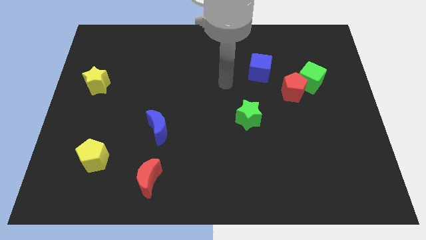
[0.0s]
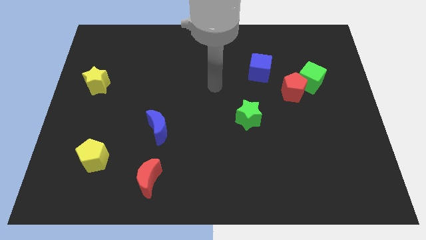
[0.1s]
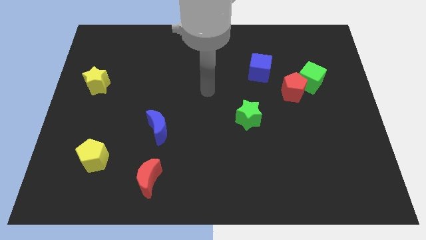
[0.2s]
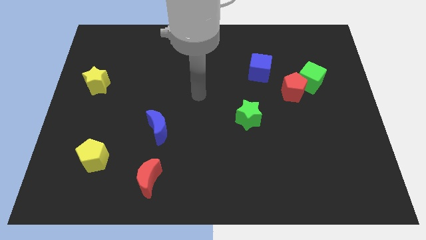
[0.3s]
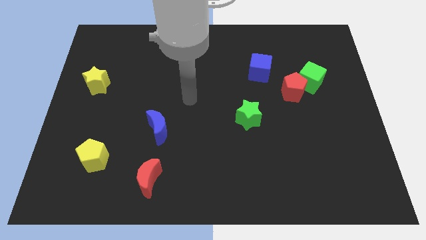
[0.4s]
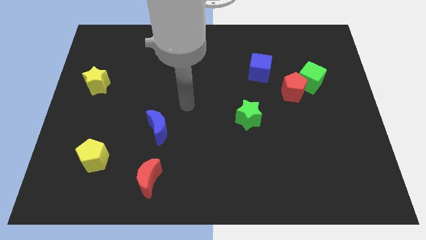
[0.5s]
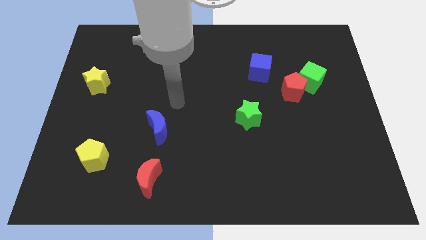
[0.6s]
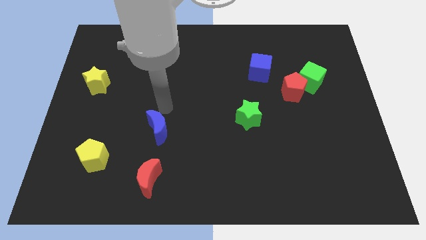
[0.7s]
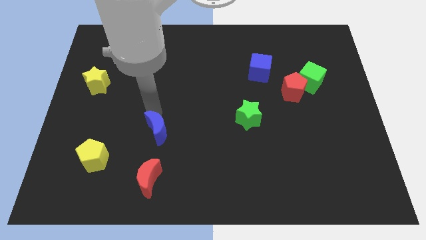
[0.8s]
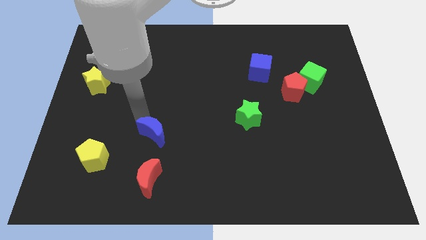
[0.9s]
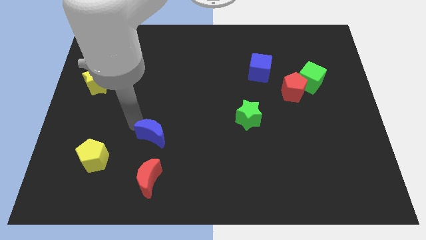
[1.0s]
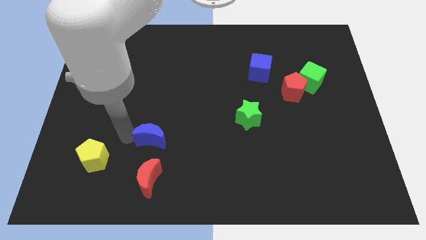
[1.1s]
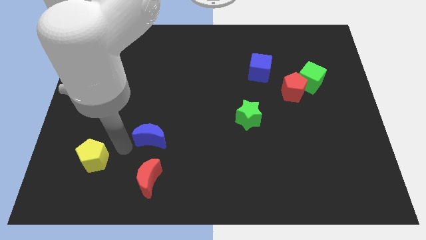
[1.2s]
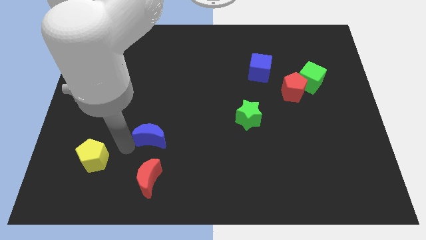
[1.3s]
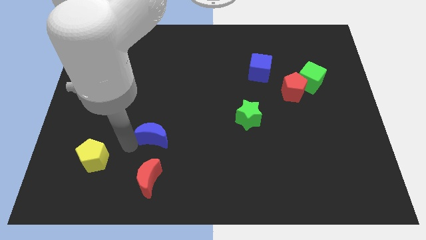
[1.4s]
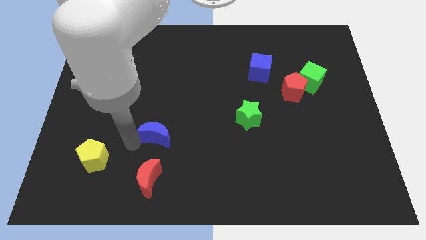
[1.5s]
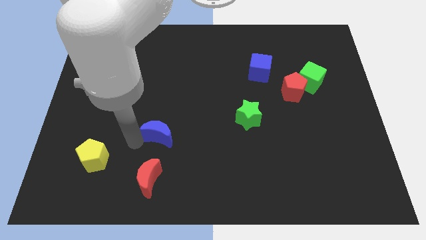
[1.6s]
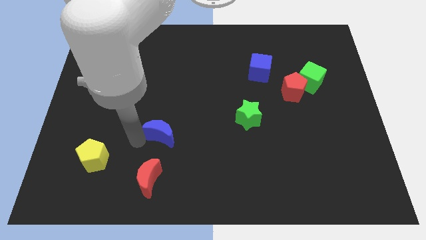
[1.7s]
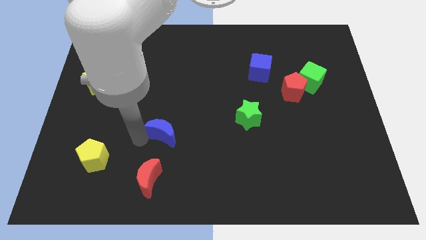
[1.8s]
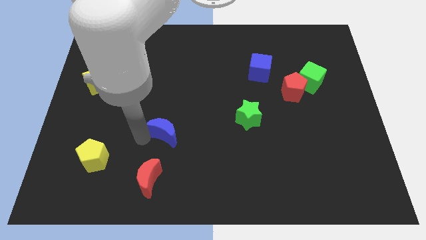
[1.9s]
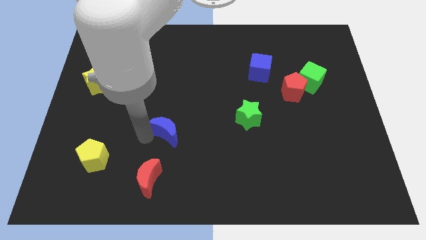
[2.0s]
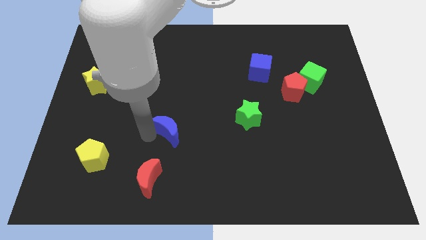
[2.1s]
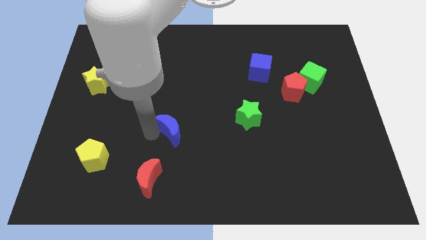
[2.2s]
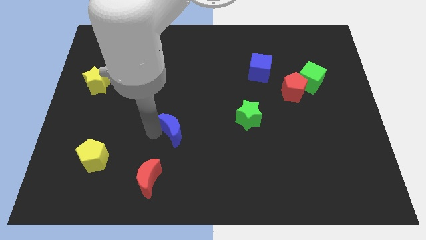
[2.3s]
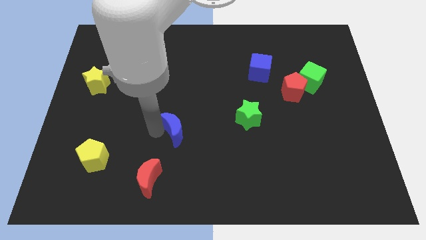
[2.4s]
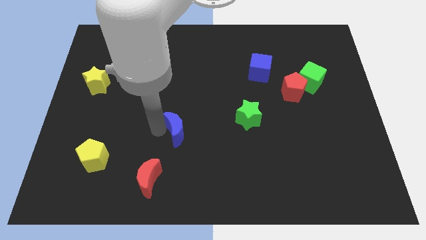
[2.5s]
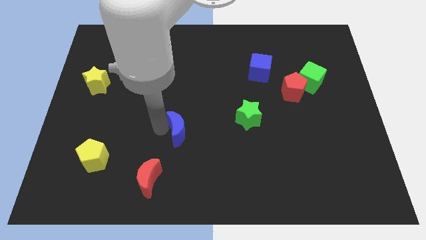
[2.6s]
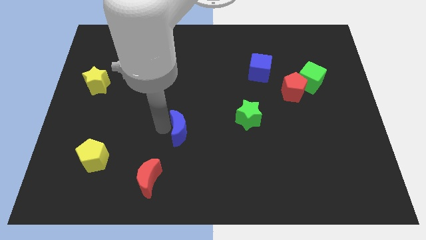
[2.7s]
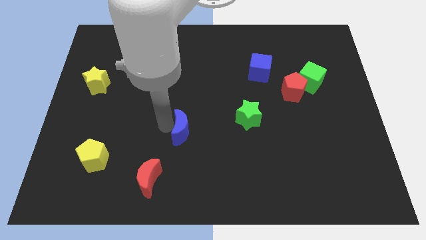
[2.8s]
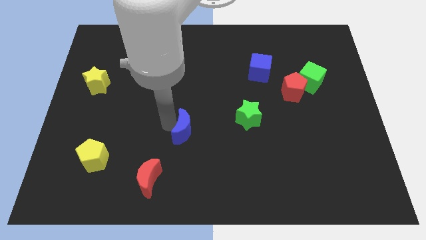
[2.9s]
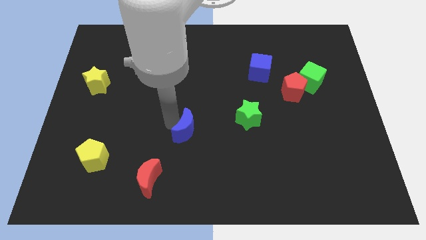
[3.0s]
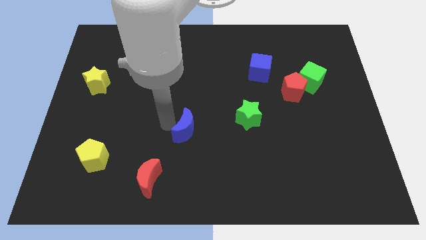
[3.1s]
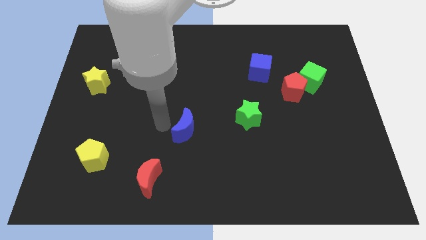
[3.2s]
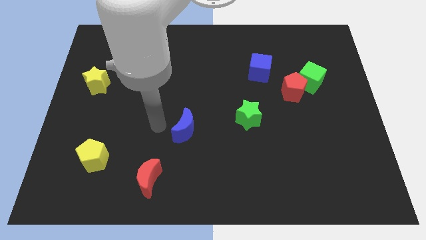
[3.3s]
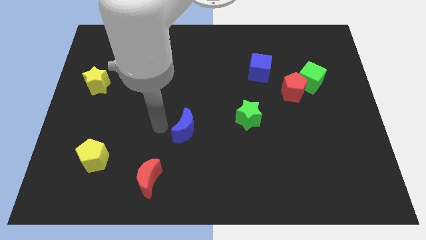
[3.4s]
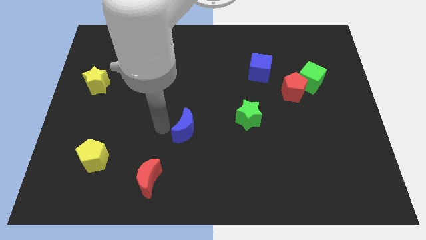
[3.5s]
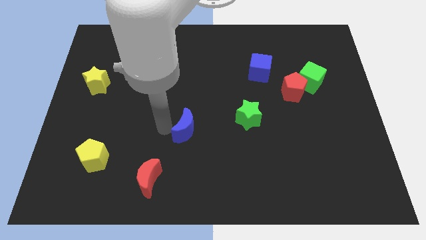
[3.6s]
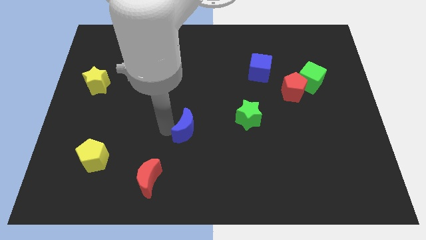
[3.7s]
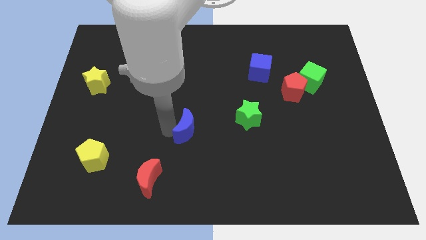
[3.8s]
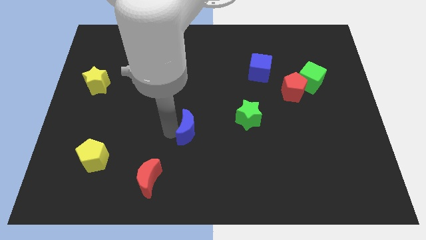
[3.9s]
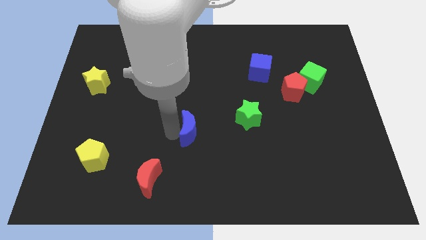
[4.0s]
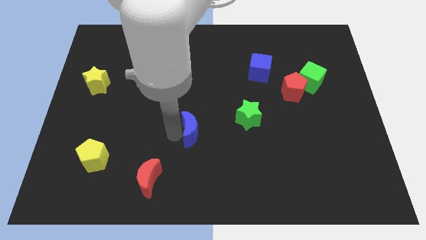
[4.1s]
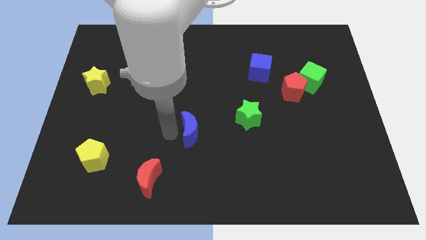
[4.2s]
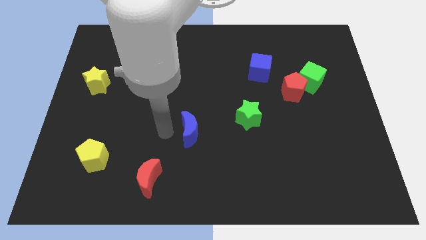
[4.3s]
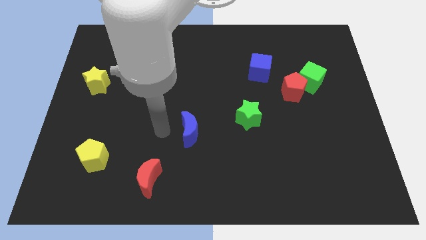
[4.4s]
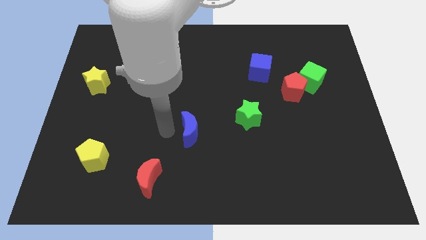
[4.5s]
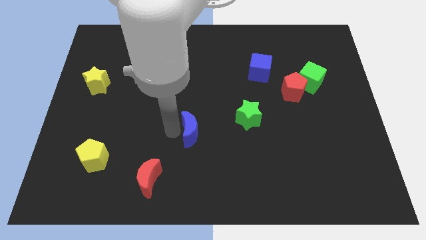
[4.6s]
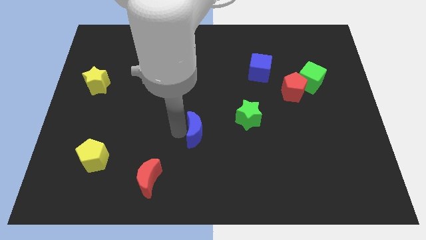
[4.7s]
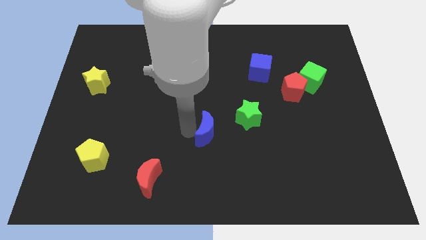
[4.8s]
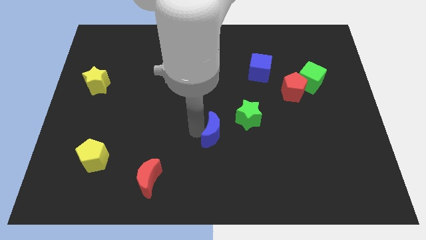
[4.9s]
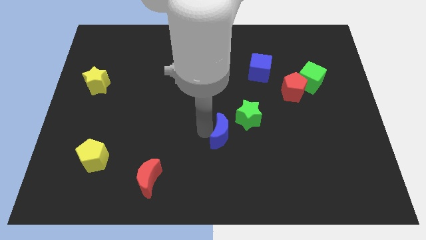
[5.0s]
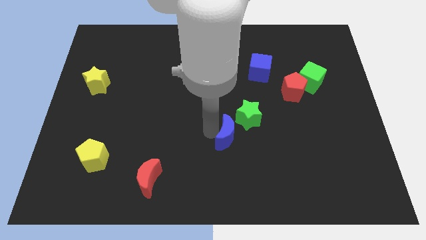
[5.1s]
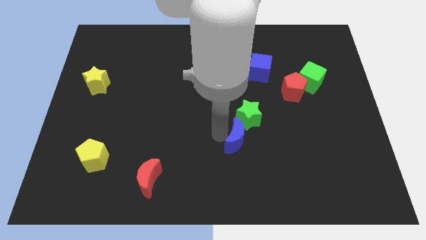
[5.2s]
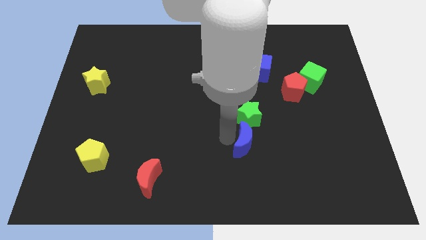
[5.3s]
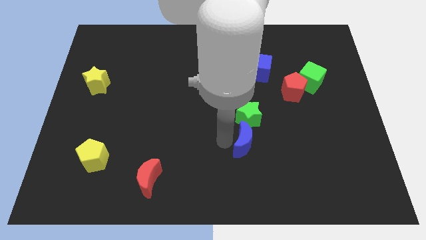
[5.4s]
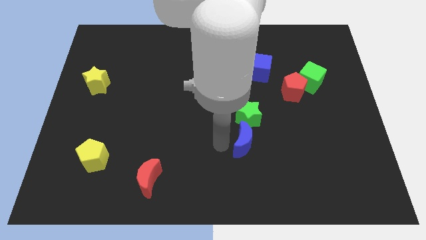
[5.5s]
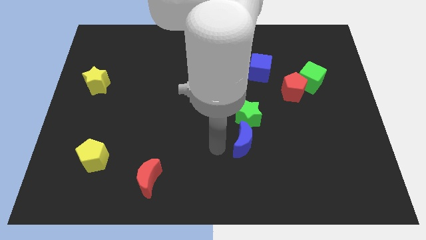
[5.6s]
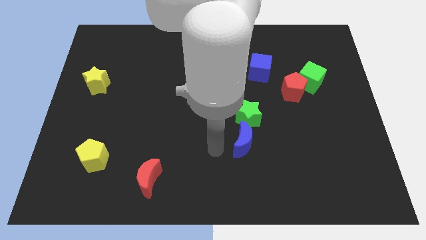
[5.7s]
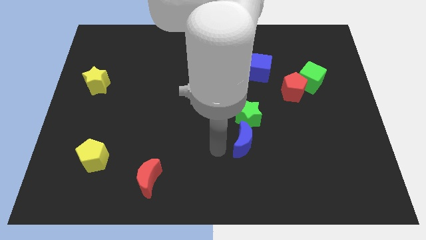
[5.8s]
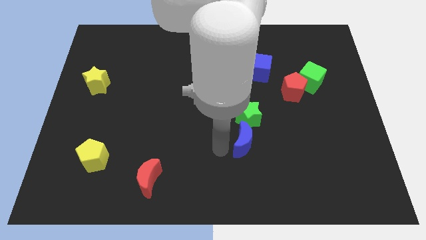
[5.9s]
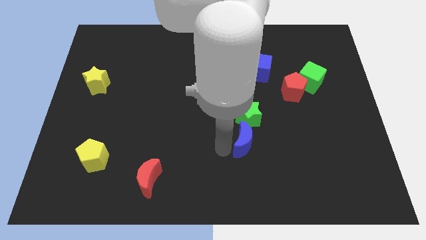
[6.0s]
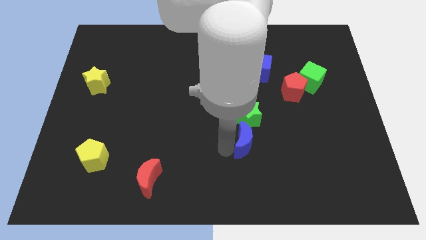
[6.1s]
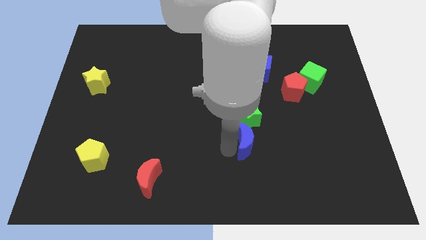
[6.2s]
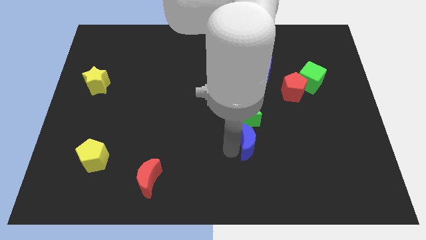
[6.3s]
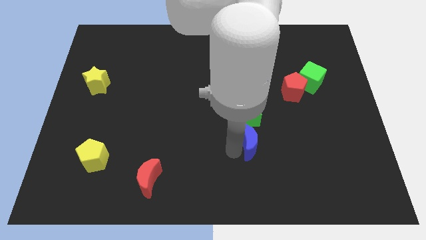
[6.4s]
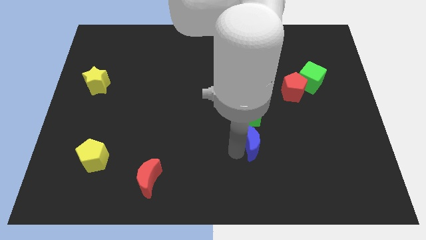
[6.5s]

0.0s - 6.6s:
move the blue moon to the right

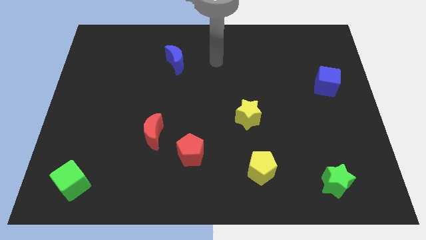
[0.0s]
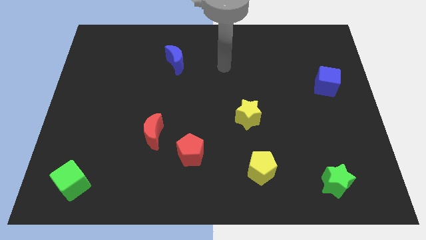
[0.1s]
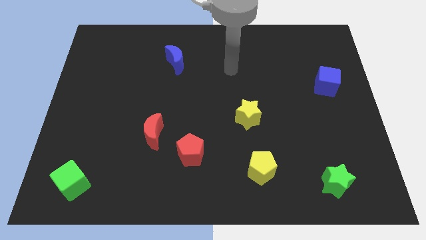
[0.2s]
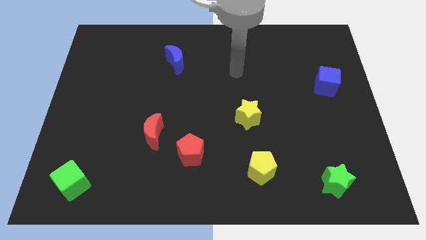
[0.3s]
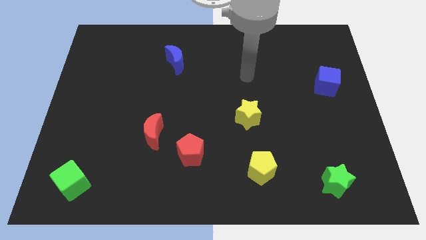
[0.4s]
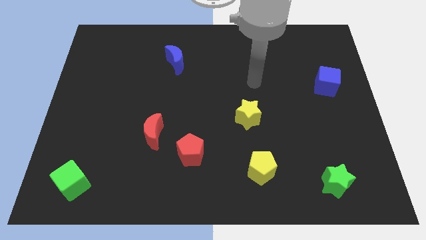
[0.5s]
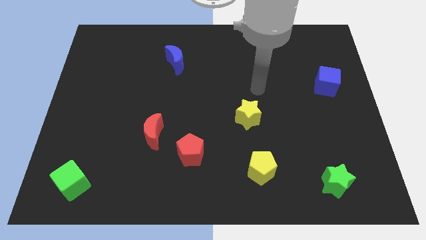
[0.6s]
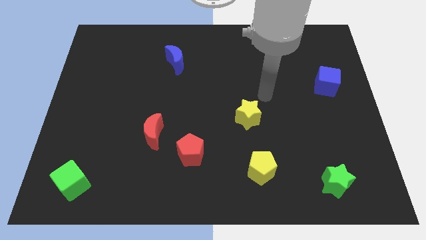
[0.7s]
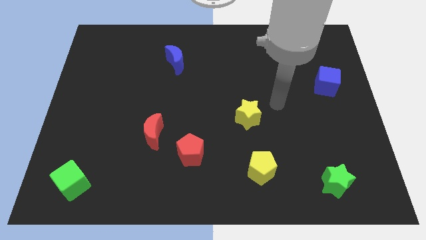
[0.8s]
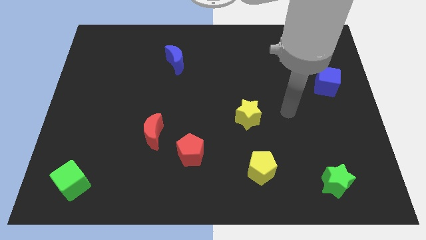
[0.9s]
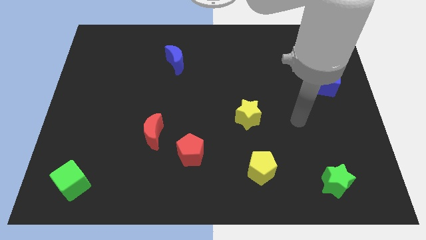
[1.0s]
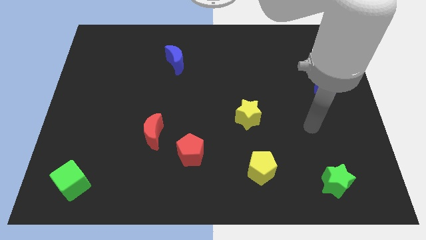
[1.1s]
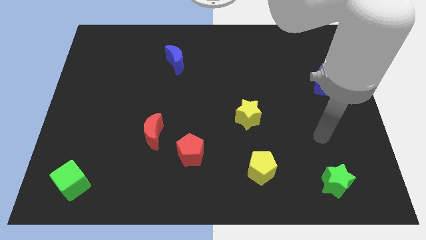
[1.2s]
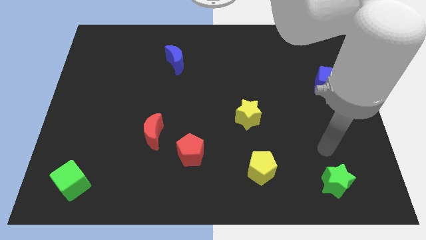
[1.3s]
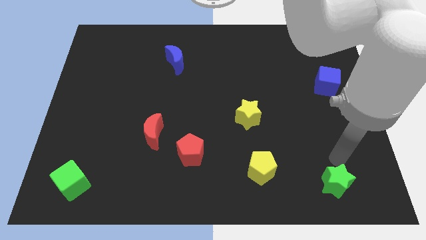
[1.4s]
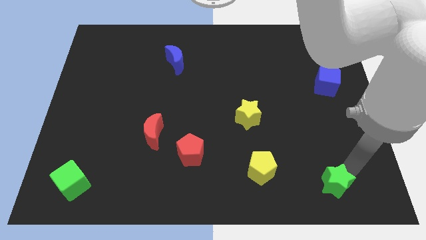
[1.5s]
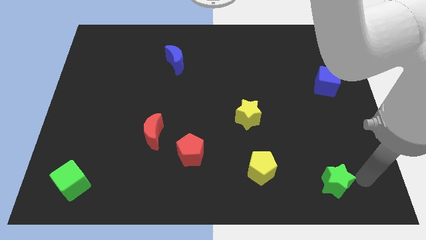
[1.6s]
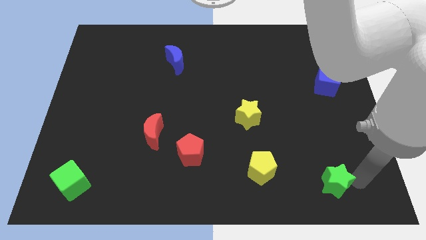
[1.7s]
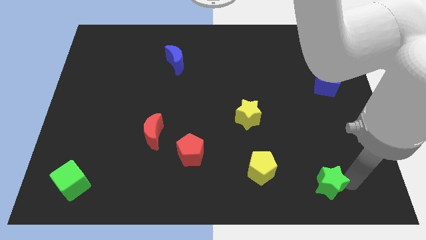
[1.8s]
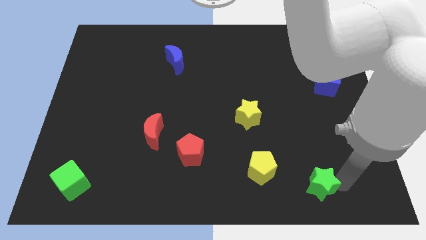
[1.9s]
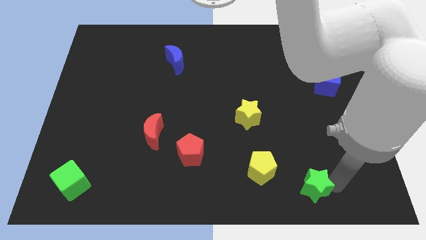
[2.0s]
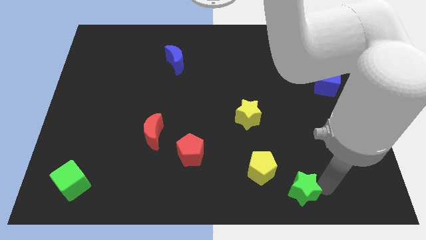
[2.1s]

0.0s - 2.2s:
move the green star slightly to the left
